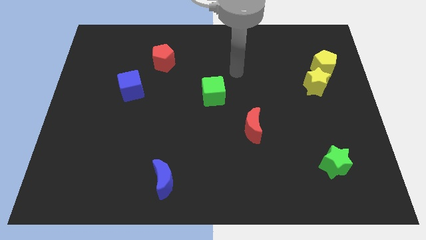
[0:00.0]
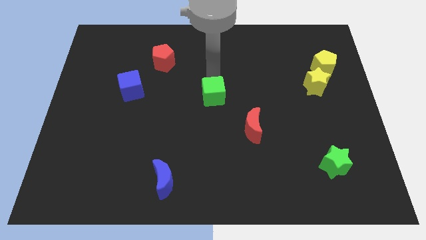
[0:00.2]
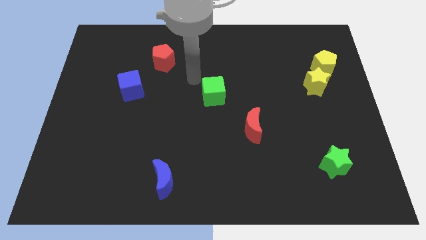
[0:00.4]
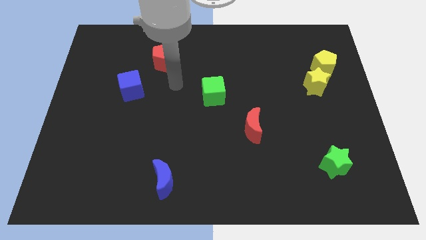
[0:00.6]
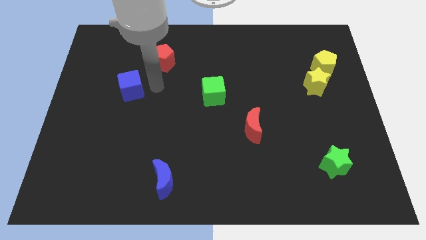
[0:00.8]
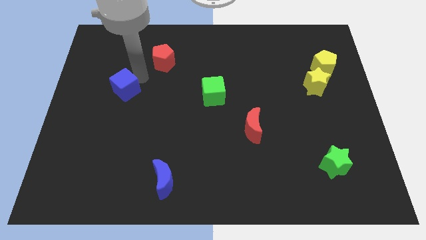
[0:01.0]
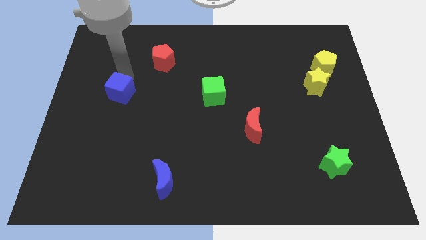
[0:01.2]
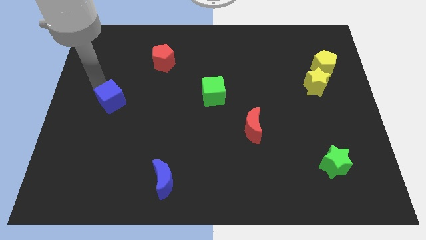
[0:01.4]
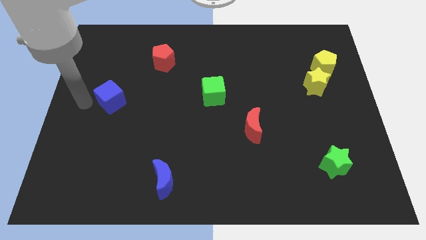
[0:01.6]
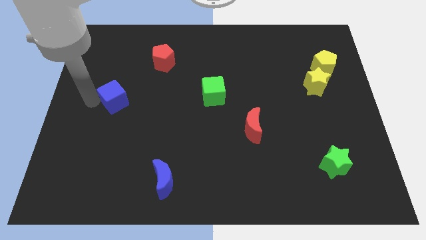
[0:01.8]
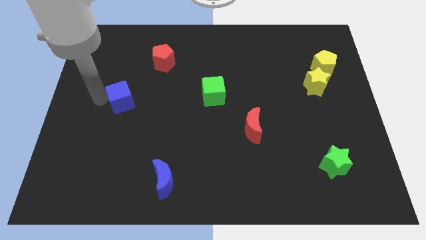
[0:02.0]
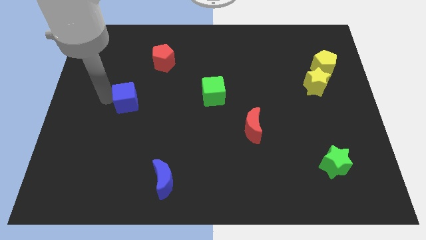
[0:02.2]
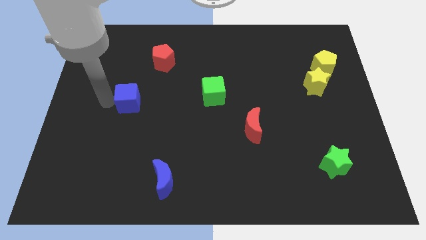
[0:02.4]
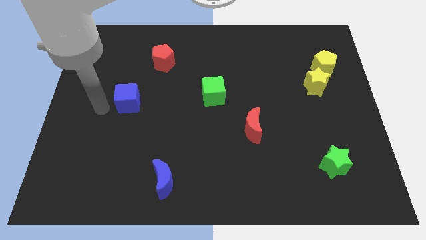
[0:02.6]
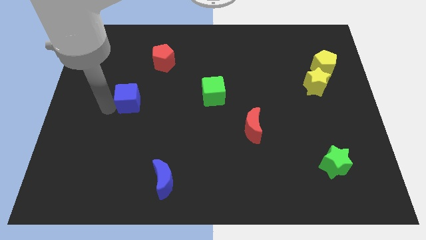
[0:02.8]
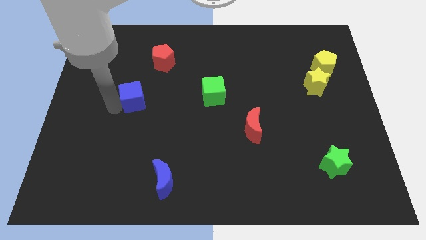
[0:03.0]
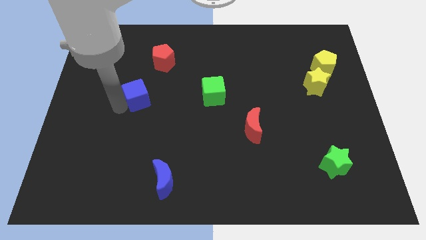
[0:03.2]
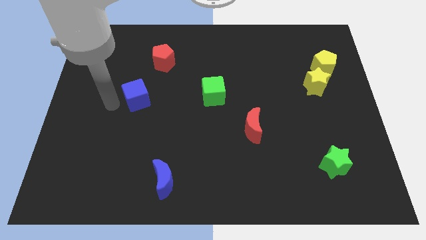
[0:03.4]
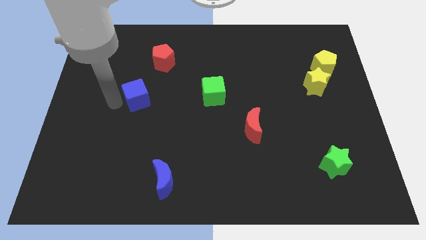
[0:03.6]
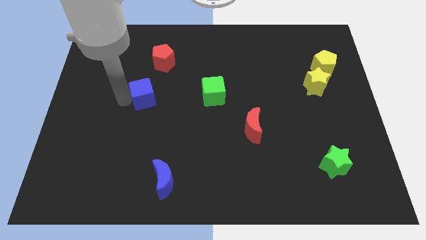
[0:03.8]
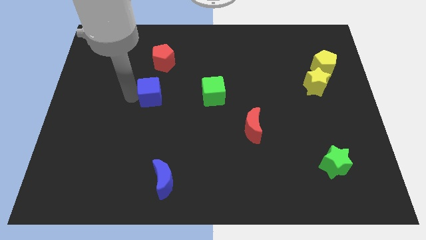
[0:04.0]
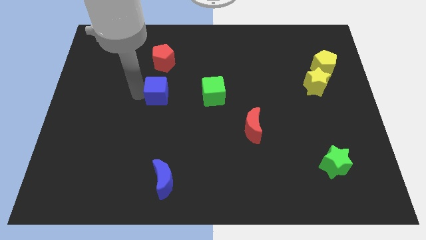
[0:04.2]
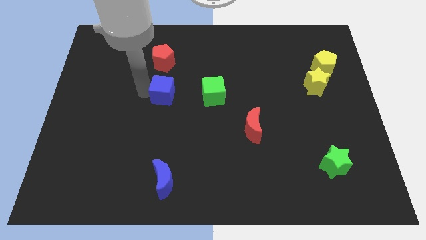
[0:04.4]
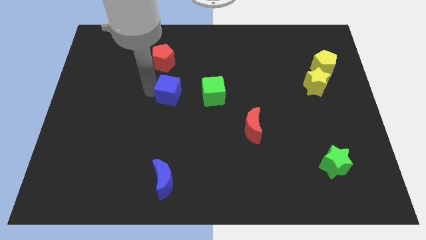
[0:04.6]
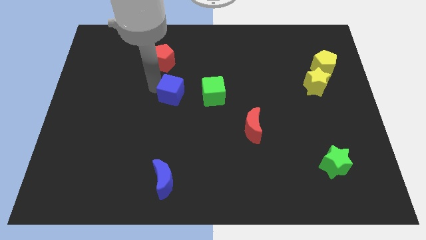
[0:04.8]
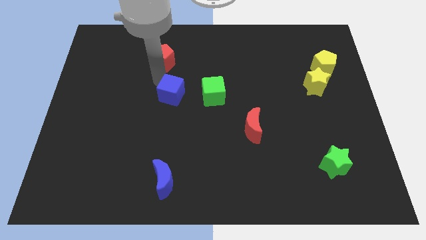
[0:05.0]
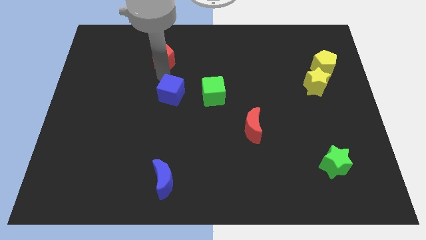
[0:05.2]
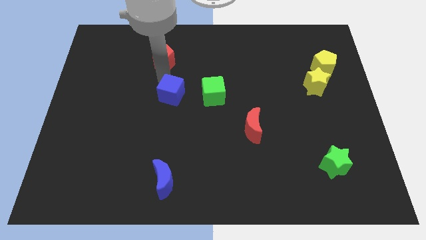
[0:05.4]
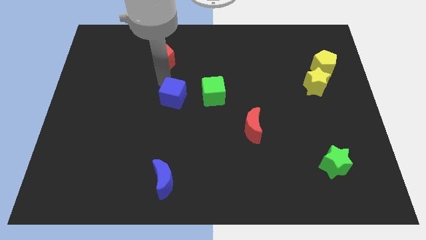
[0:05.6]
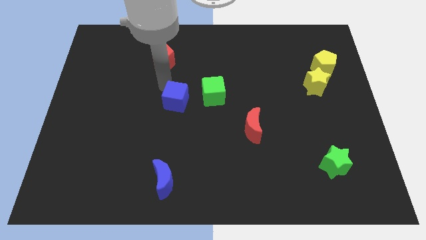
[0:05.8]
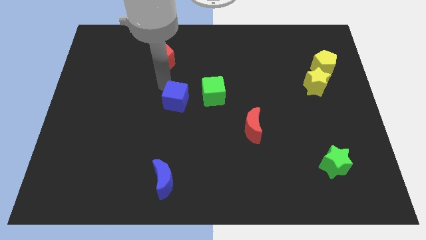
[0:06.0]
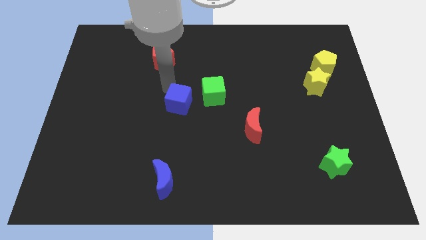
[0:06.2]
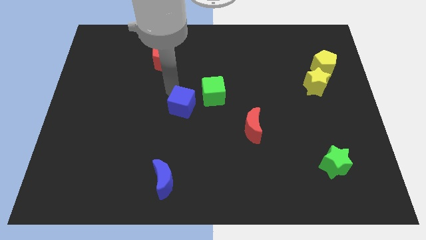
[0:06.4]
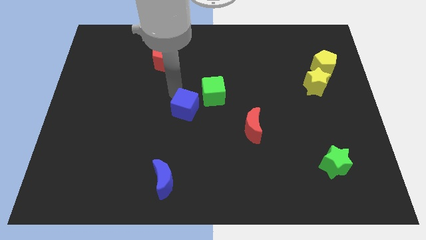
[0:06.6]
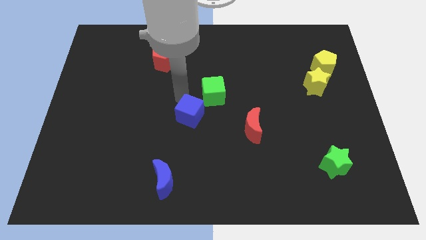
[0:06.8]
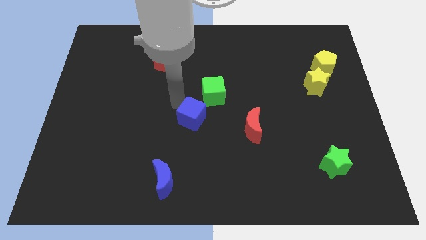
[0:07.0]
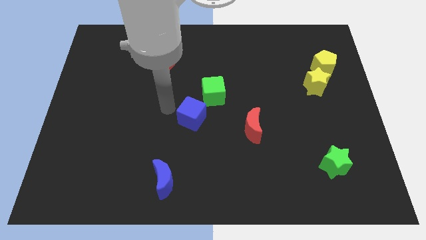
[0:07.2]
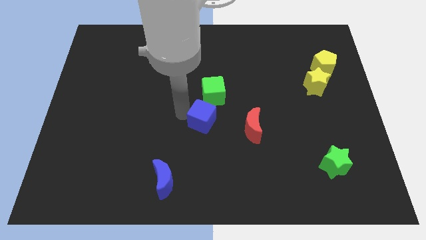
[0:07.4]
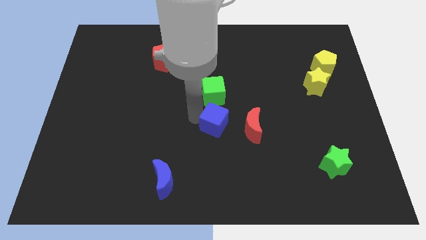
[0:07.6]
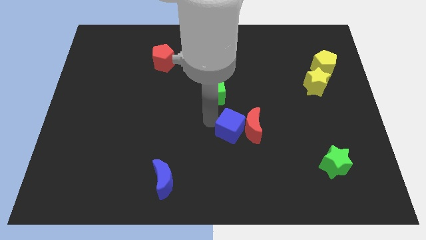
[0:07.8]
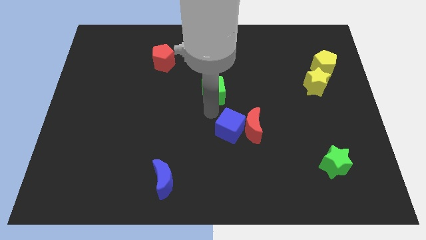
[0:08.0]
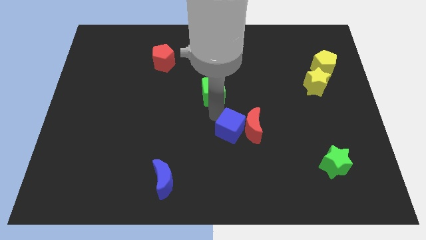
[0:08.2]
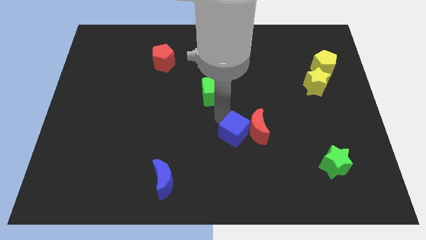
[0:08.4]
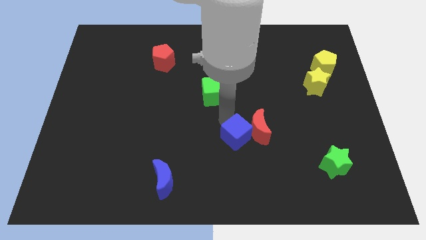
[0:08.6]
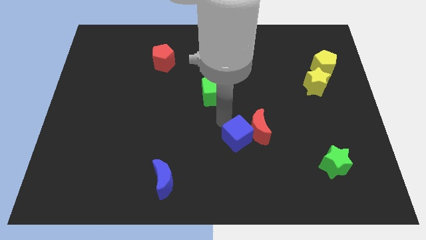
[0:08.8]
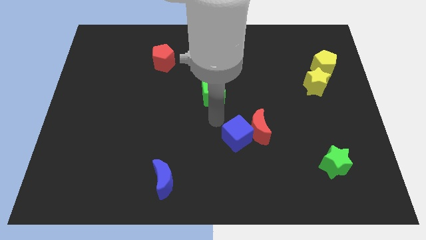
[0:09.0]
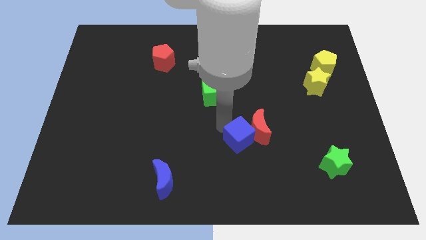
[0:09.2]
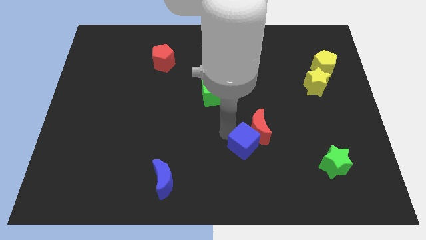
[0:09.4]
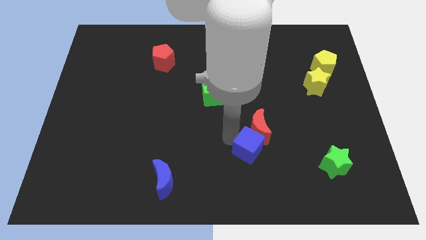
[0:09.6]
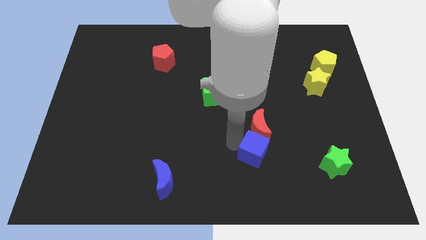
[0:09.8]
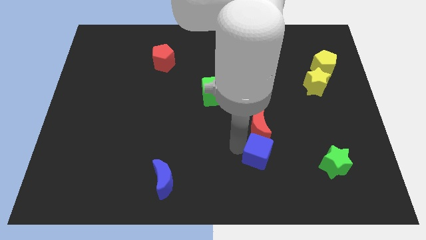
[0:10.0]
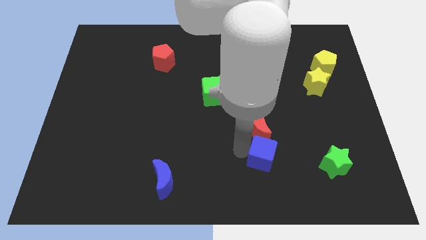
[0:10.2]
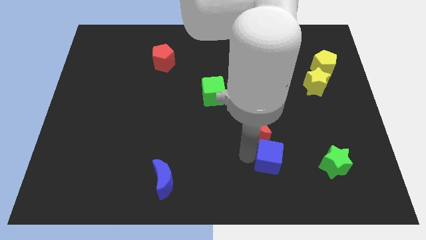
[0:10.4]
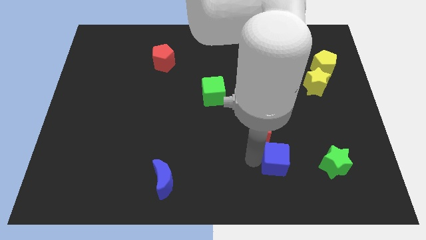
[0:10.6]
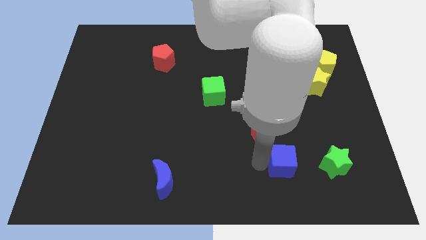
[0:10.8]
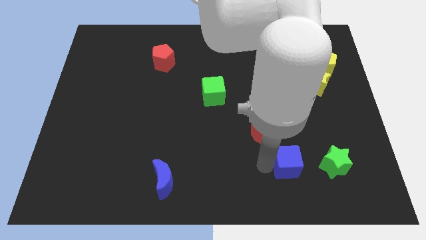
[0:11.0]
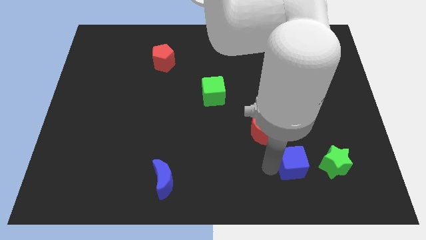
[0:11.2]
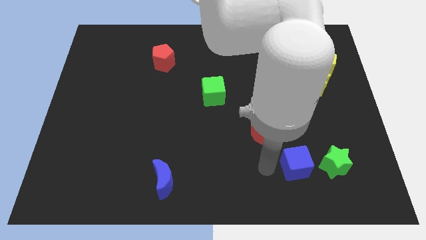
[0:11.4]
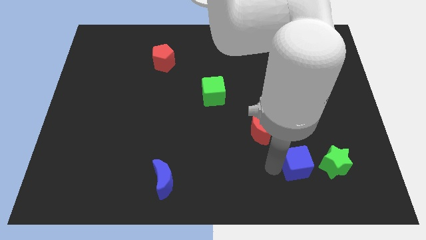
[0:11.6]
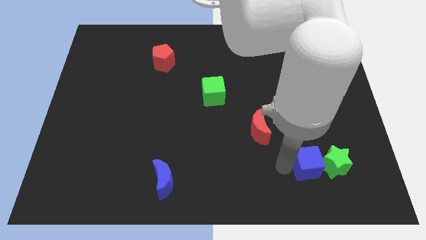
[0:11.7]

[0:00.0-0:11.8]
put the blue cube next to the green star

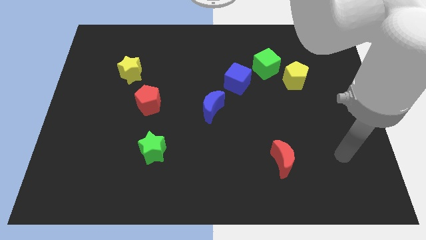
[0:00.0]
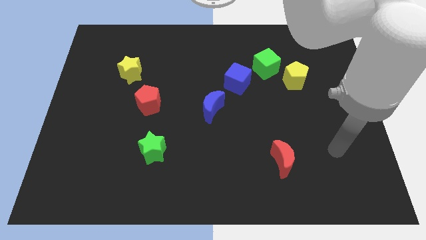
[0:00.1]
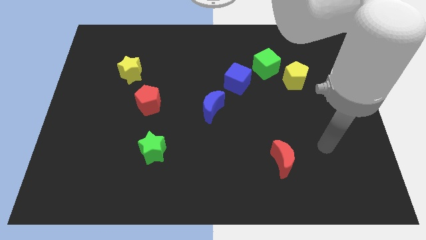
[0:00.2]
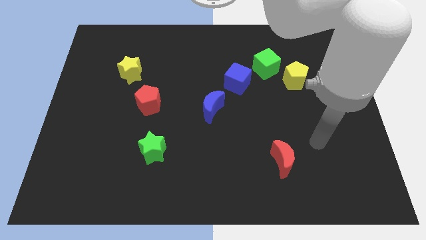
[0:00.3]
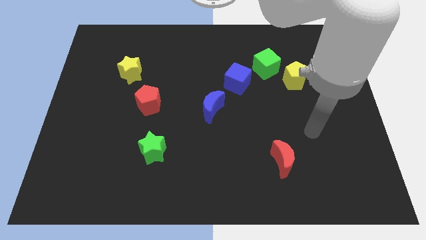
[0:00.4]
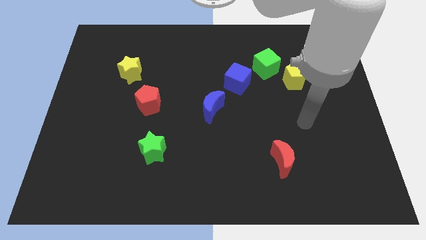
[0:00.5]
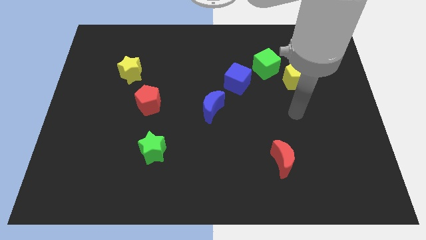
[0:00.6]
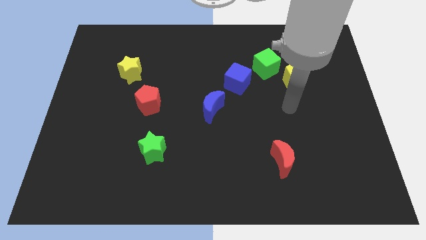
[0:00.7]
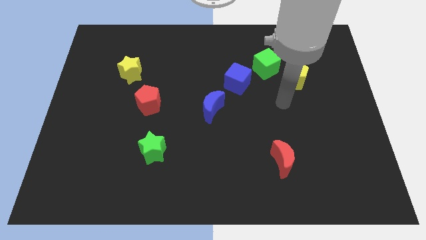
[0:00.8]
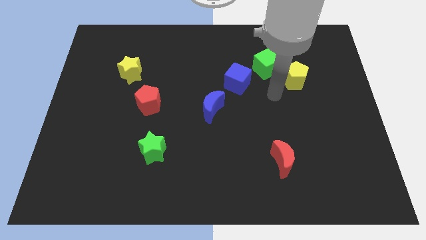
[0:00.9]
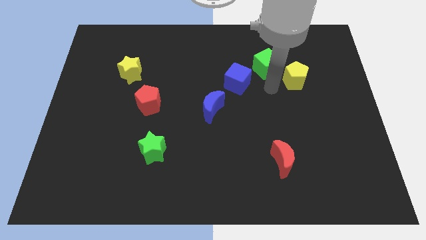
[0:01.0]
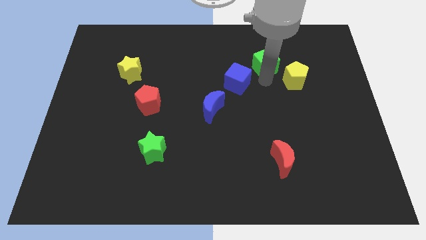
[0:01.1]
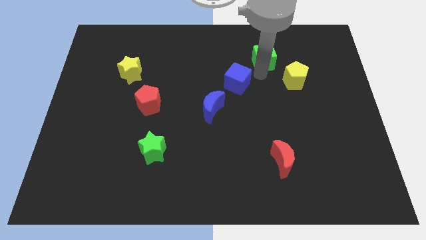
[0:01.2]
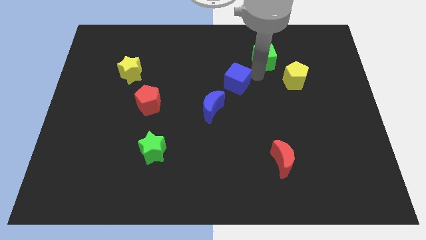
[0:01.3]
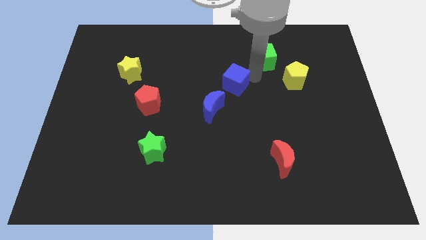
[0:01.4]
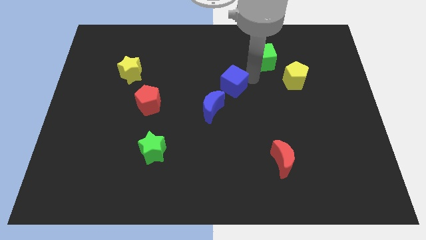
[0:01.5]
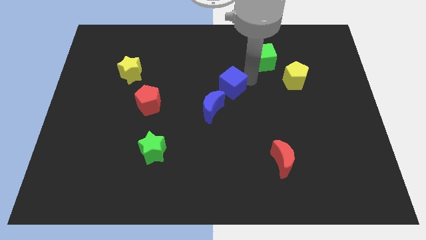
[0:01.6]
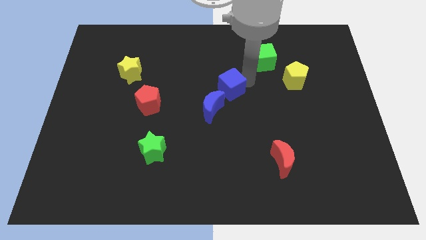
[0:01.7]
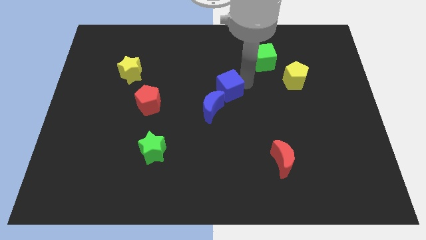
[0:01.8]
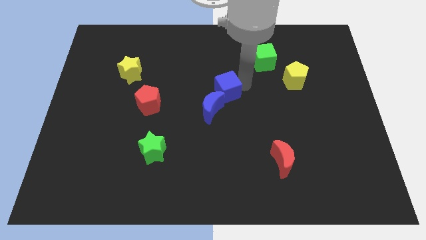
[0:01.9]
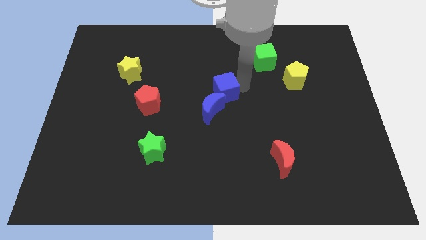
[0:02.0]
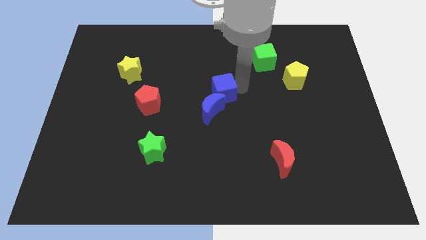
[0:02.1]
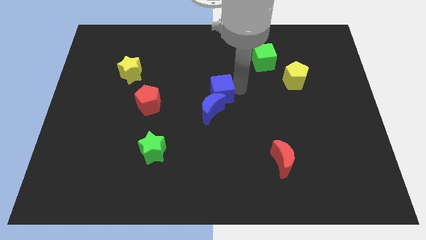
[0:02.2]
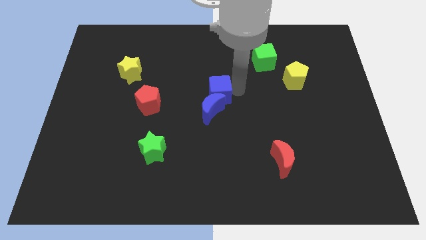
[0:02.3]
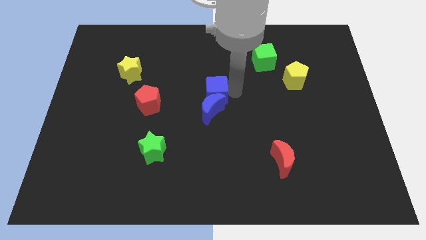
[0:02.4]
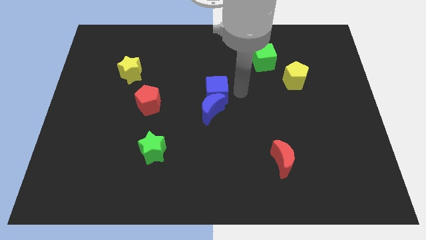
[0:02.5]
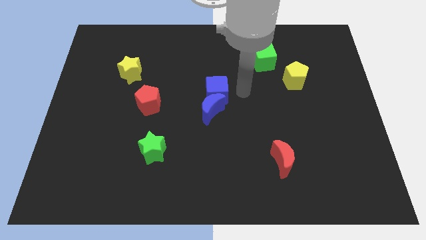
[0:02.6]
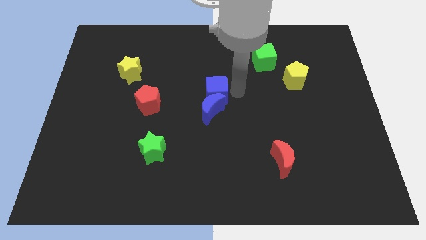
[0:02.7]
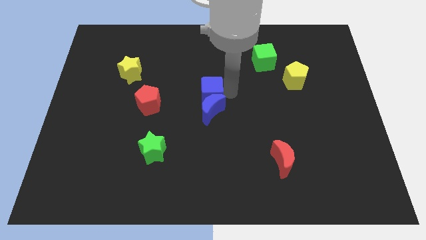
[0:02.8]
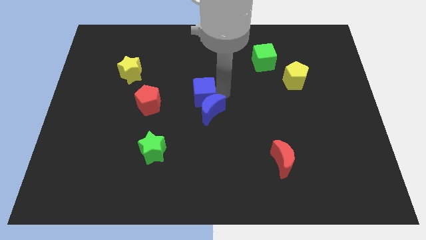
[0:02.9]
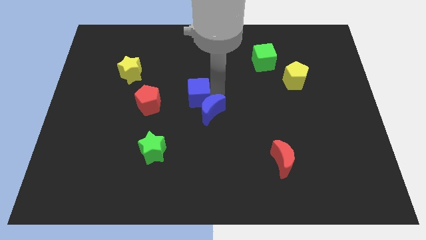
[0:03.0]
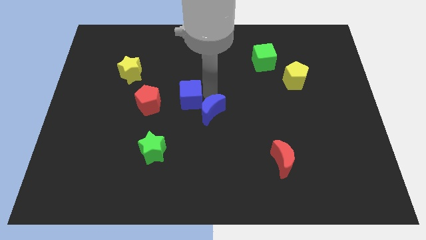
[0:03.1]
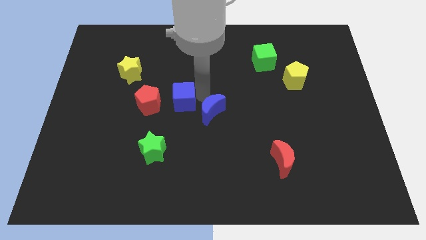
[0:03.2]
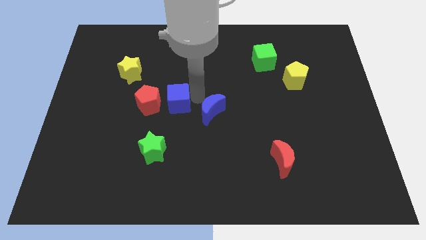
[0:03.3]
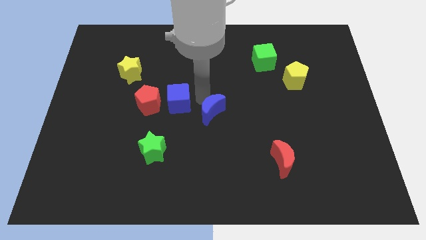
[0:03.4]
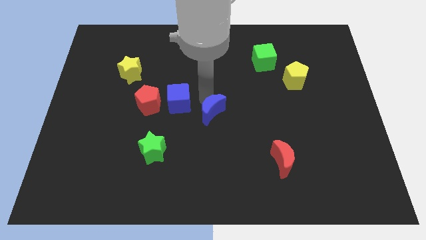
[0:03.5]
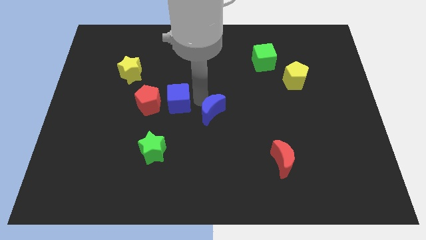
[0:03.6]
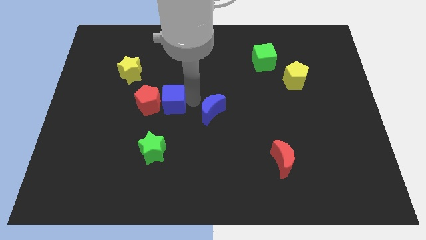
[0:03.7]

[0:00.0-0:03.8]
put the blue cube to the red pentagon
